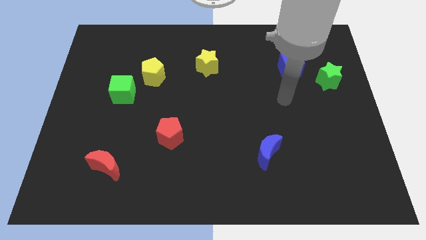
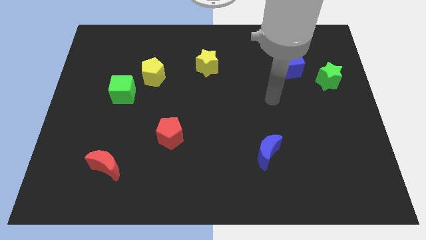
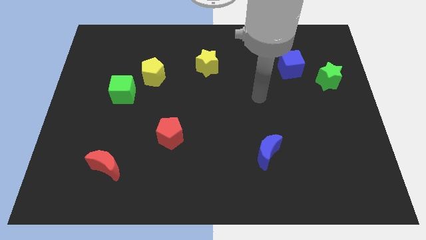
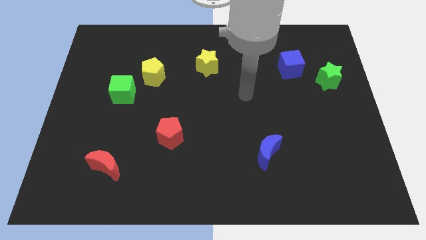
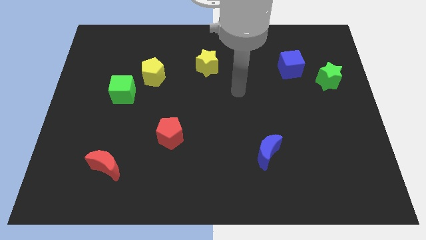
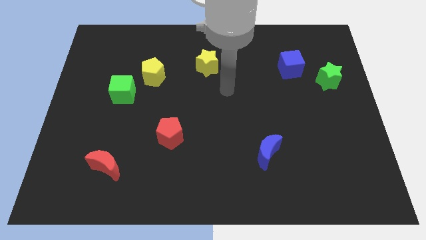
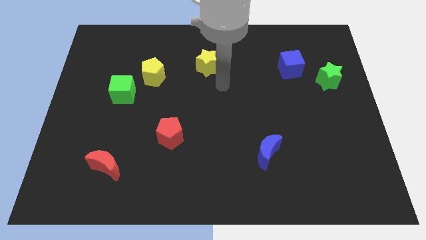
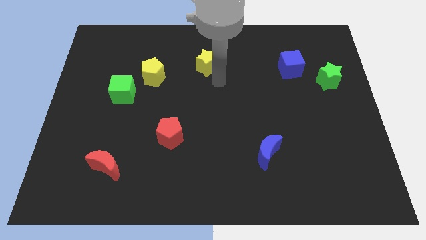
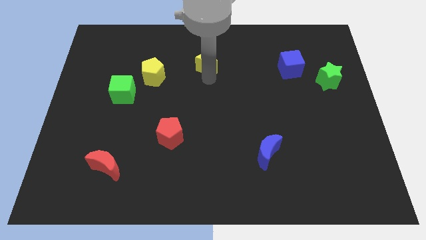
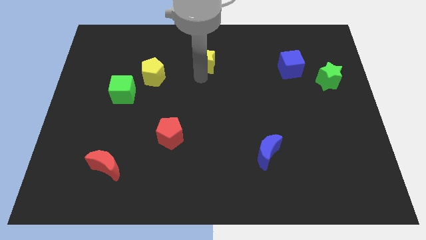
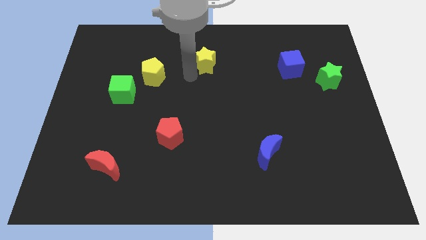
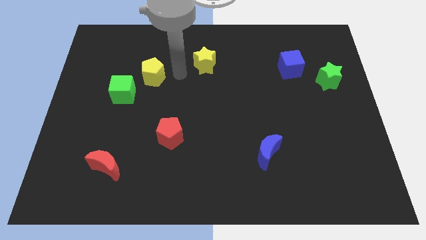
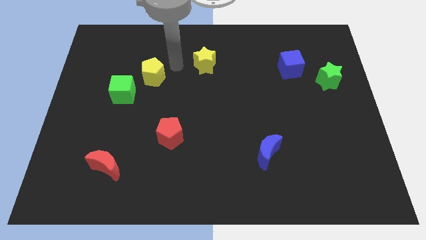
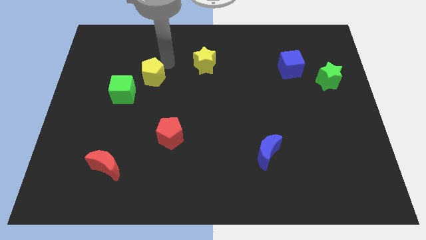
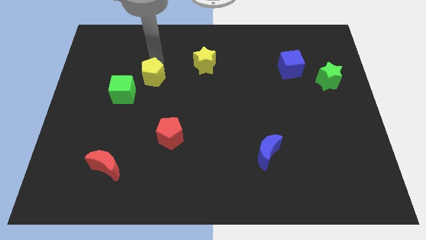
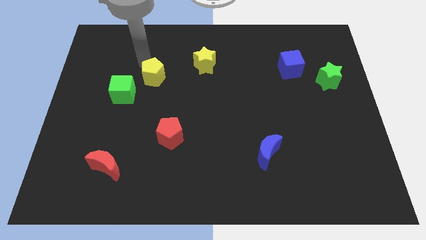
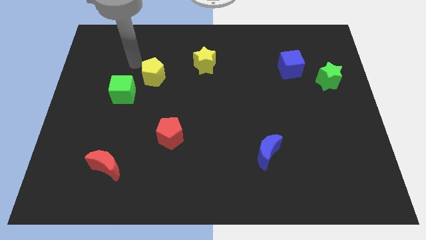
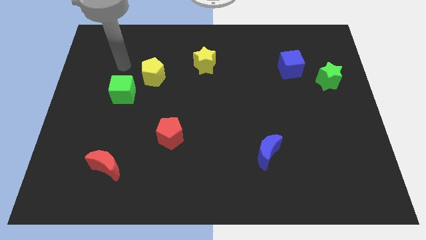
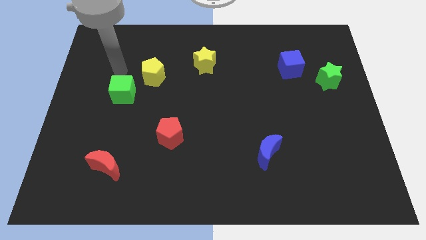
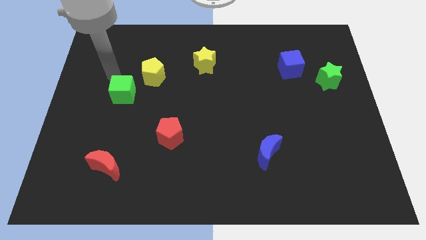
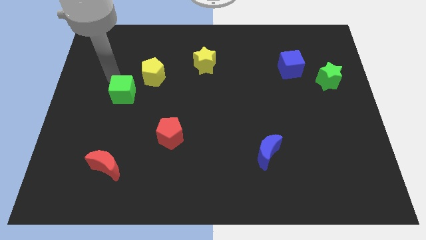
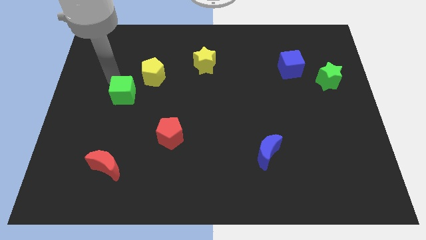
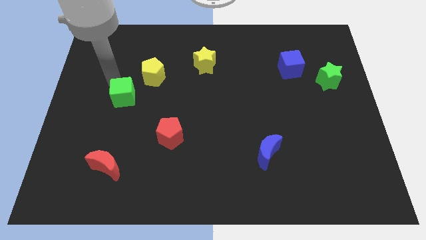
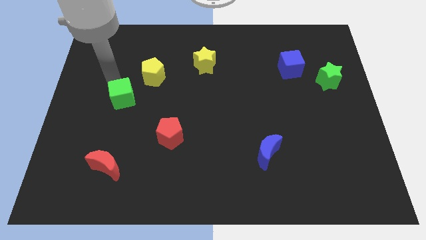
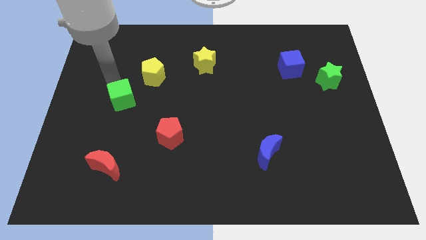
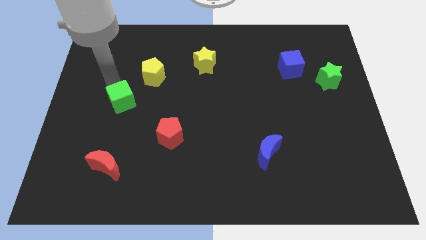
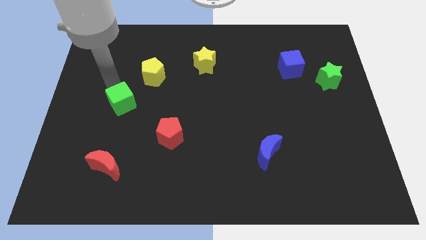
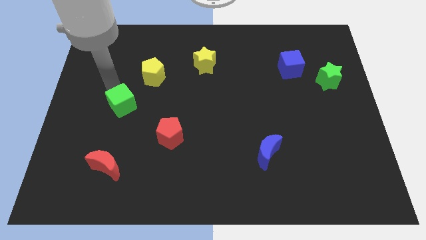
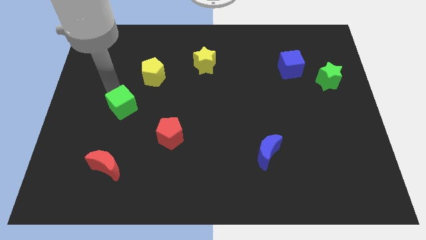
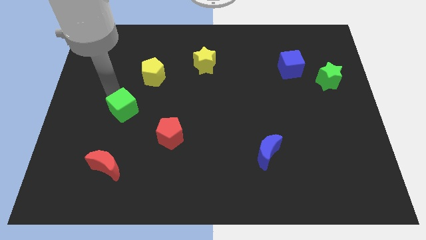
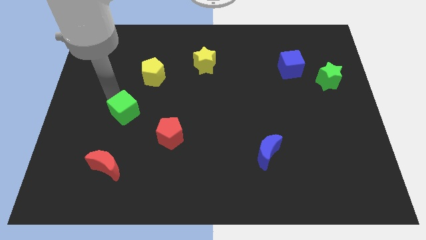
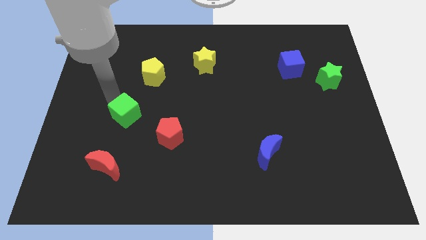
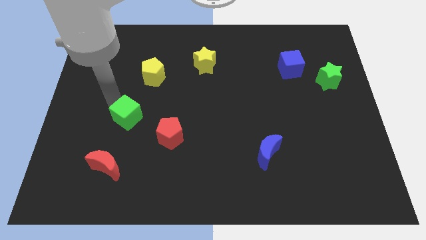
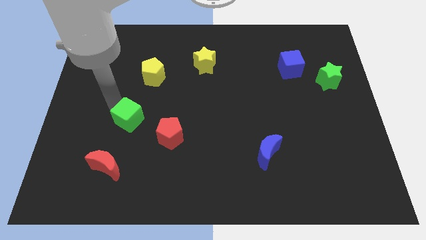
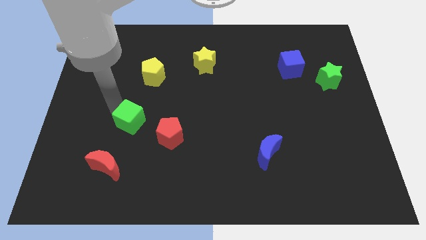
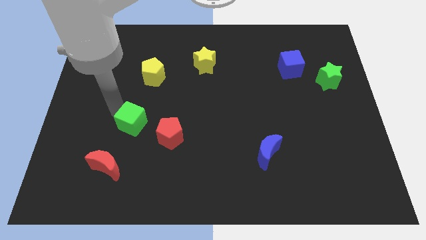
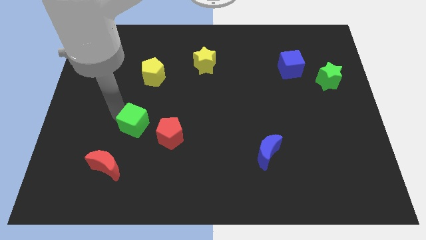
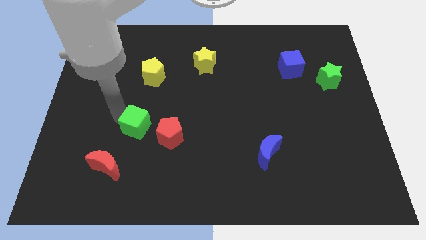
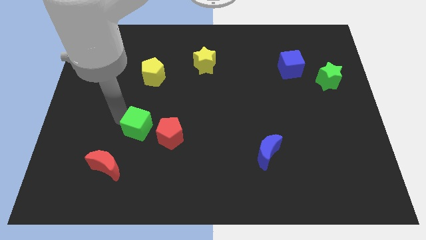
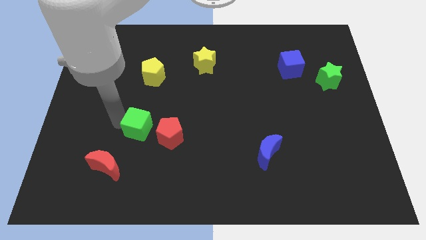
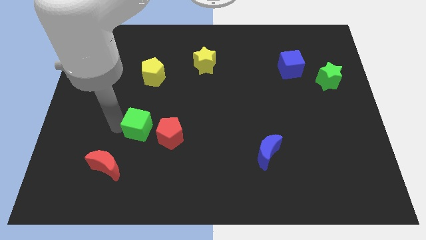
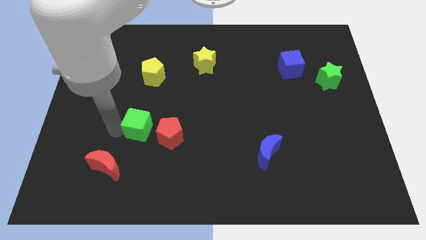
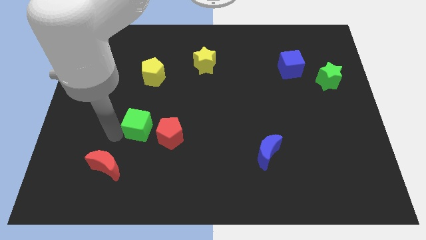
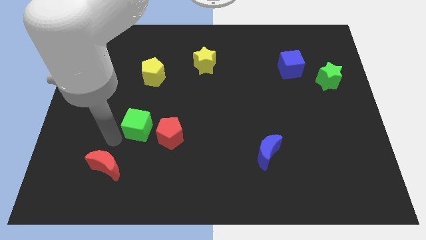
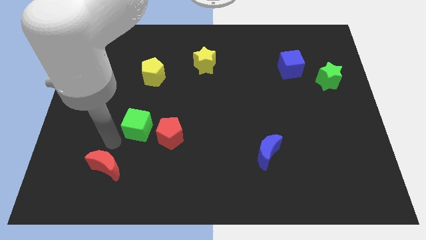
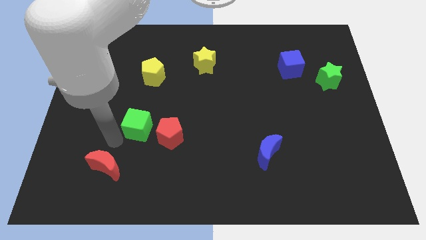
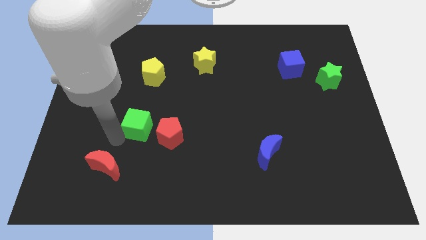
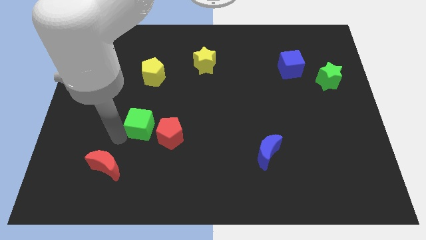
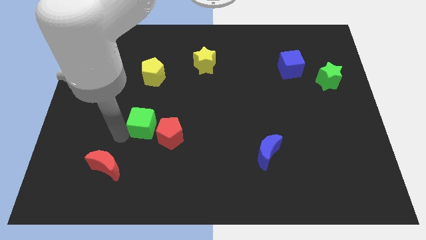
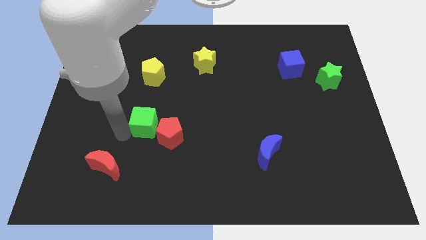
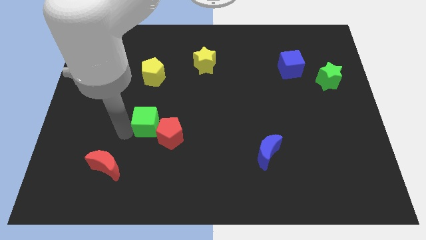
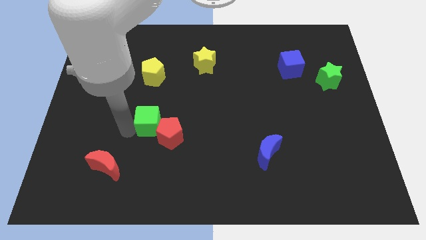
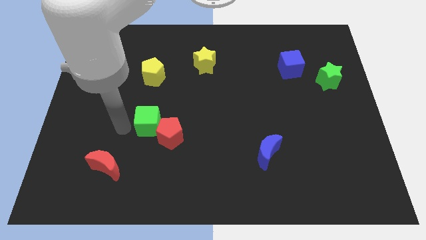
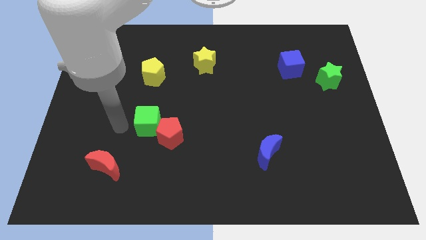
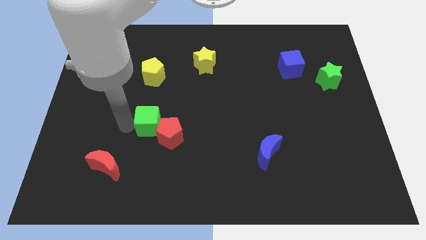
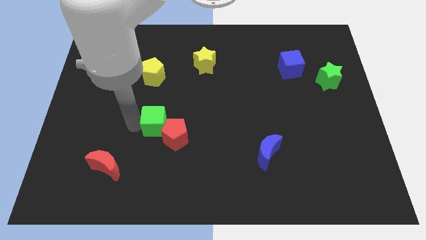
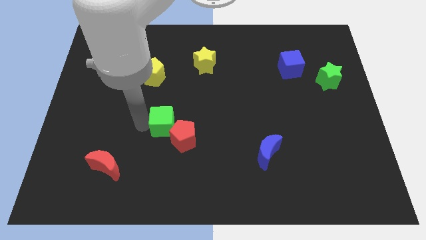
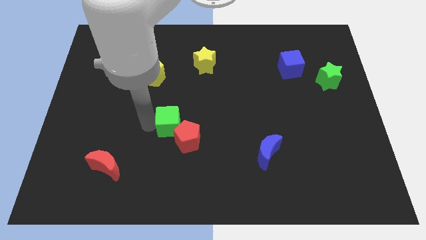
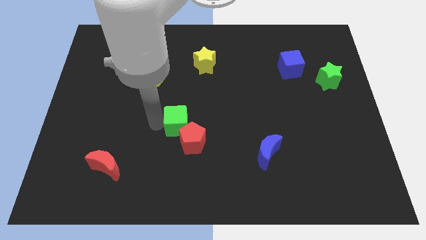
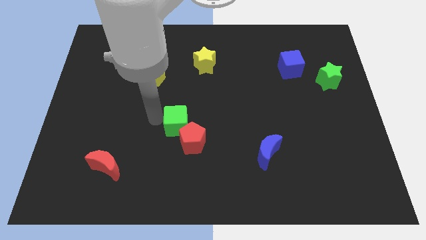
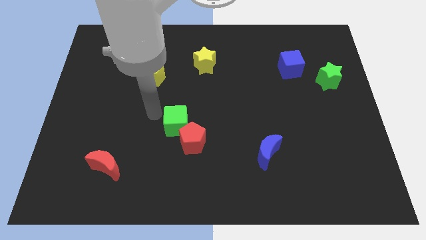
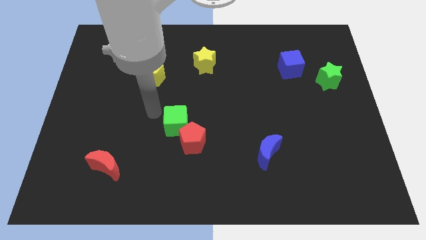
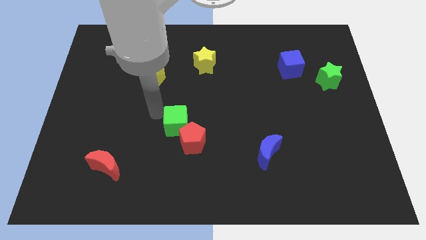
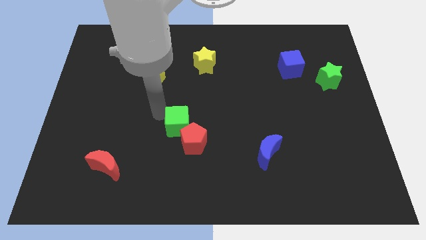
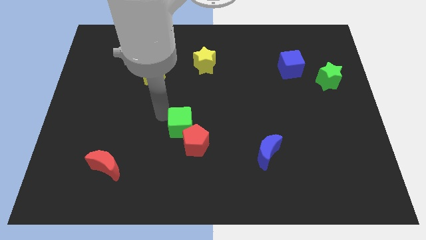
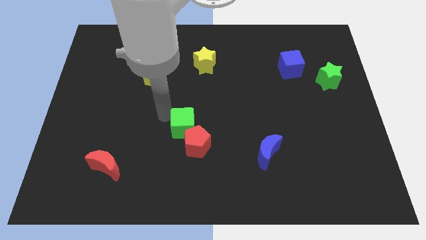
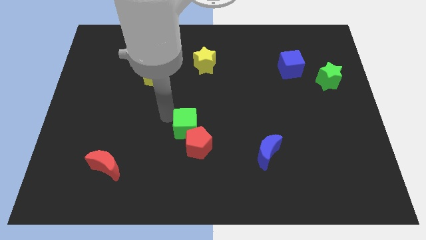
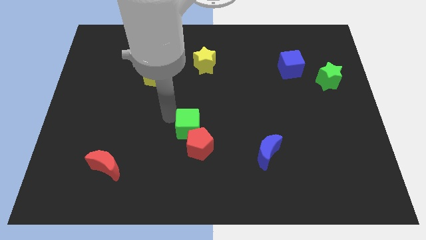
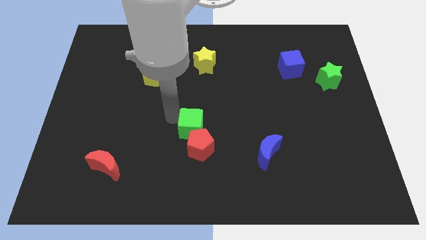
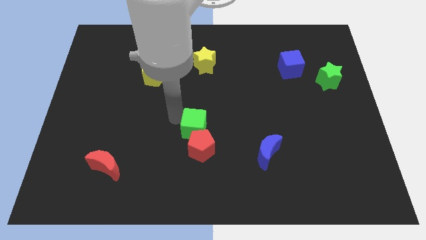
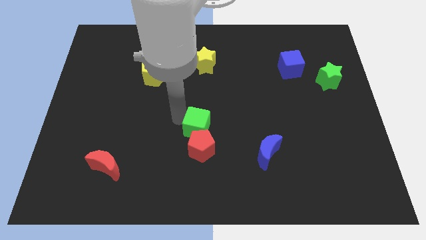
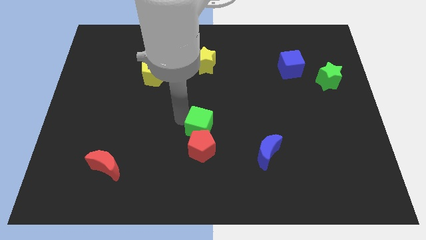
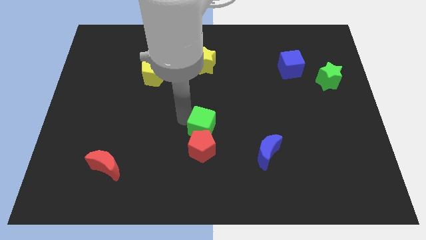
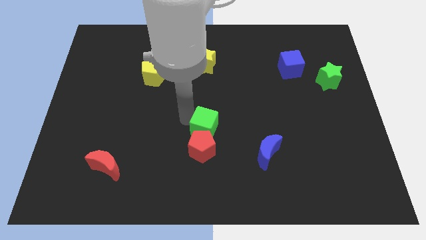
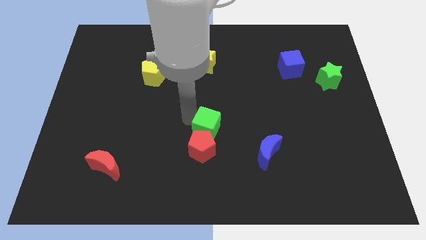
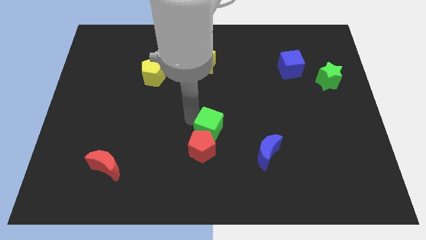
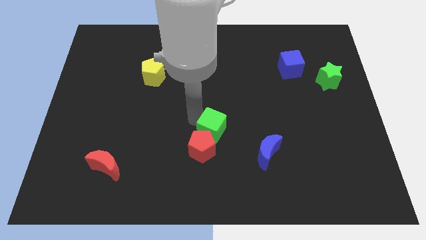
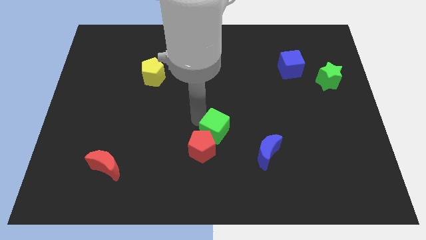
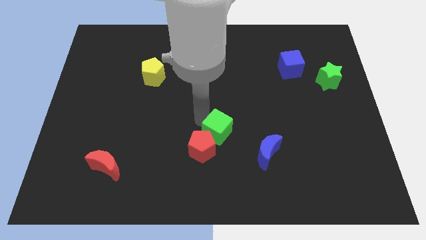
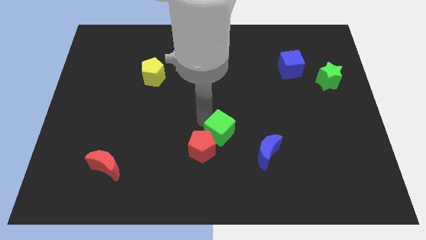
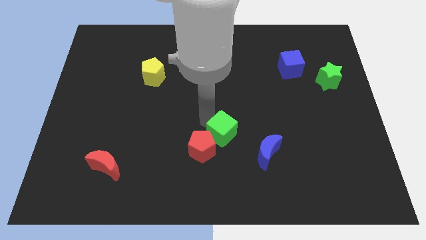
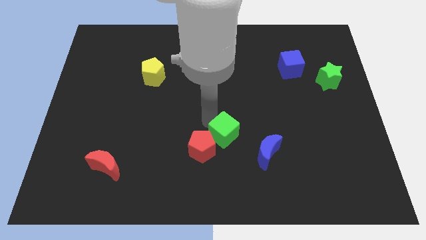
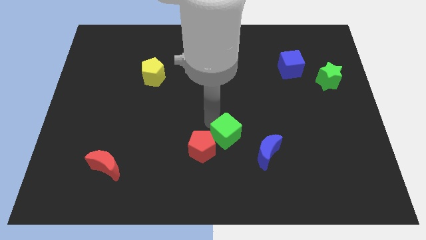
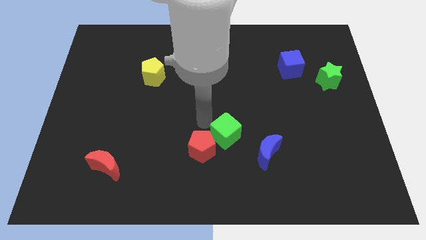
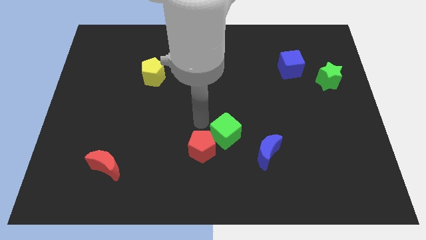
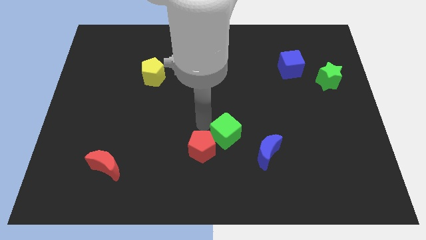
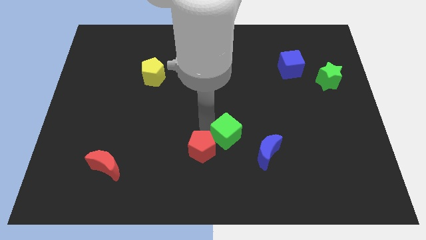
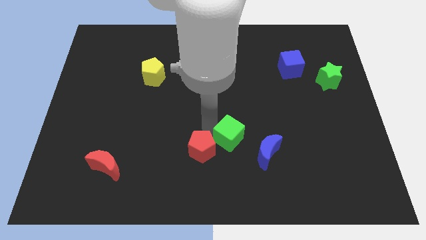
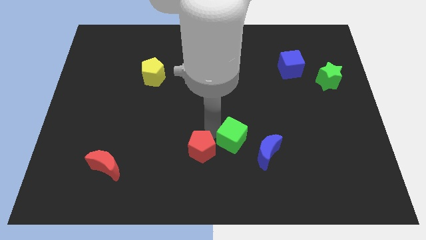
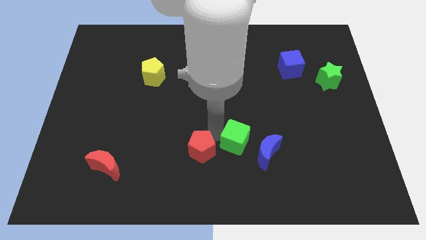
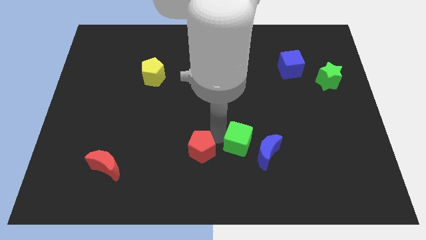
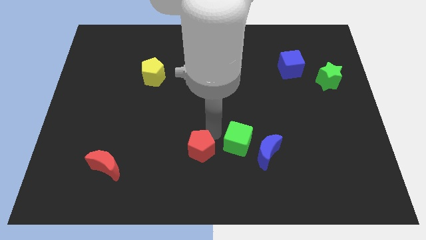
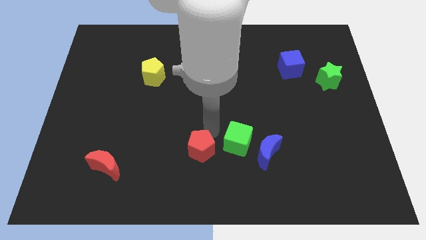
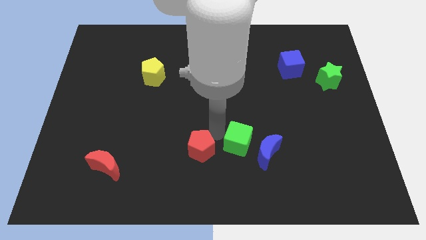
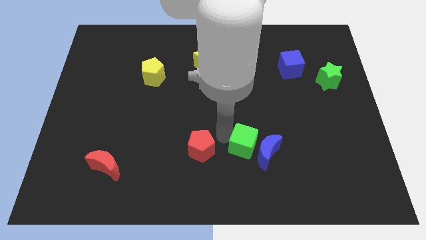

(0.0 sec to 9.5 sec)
push the green cube close to the blue moon
